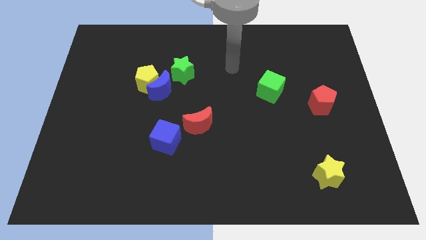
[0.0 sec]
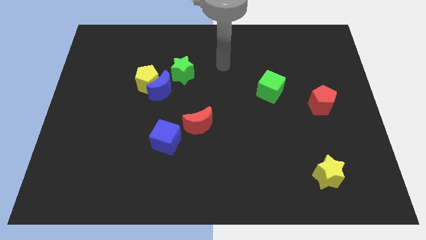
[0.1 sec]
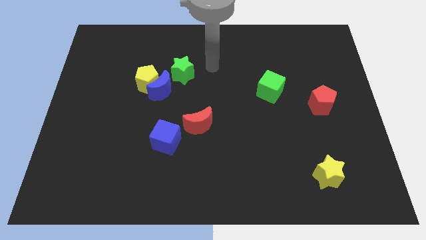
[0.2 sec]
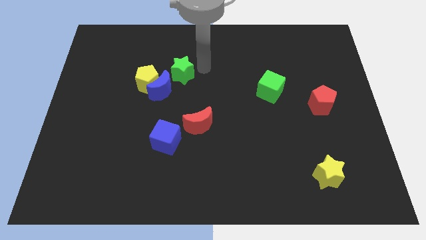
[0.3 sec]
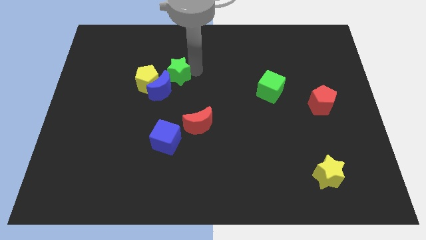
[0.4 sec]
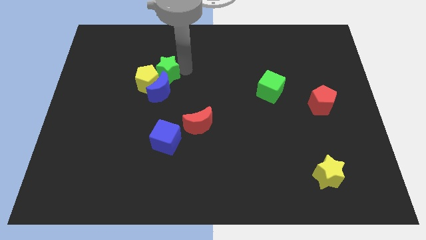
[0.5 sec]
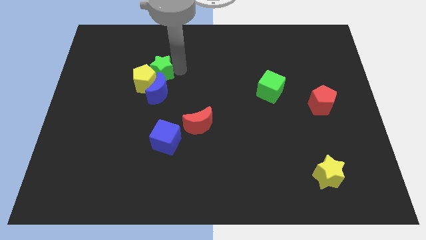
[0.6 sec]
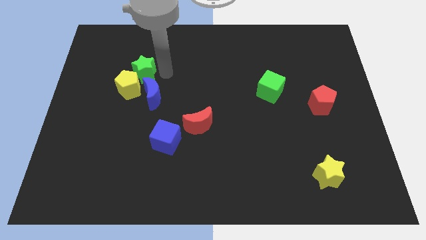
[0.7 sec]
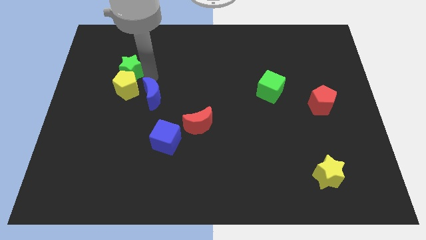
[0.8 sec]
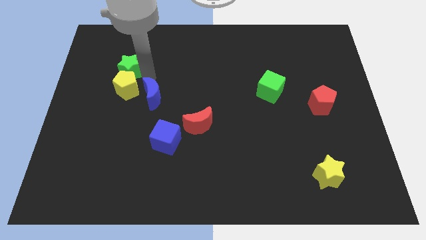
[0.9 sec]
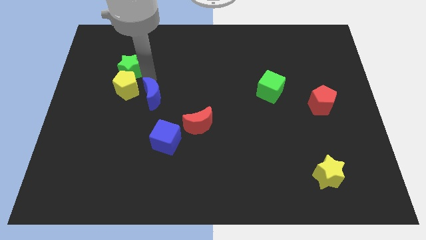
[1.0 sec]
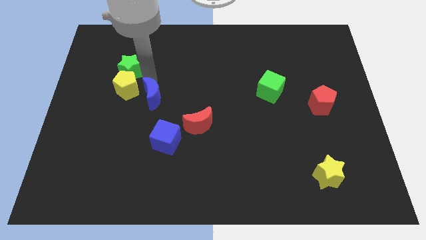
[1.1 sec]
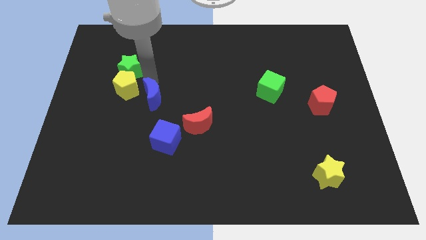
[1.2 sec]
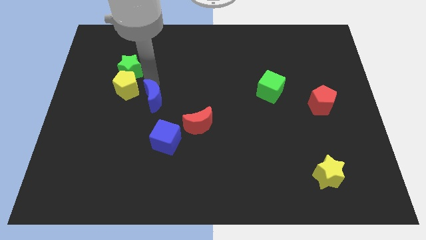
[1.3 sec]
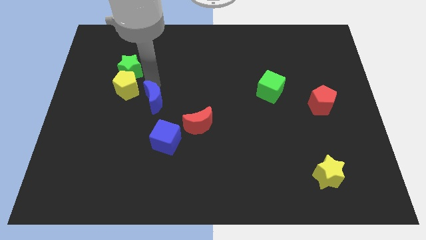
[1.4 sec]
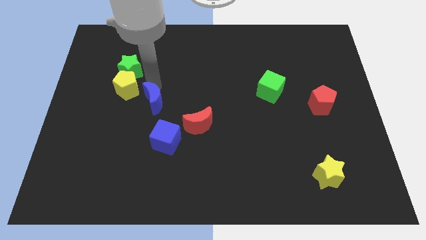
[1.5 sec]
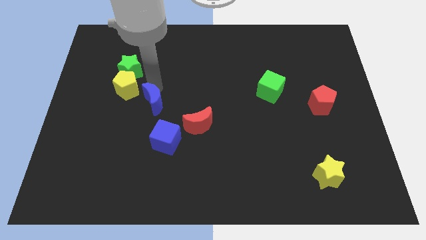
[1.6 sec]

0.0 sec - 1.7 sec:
move the blue moon away from the yellow pentagon and green star

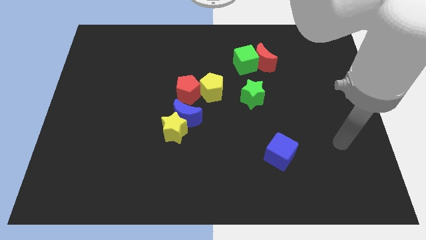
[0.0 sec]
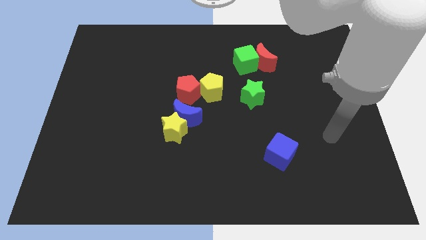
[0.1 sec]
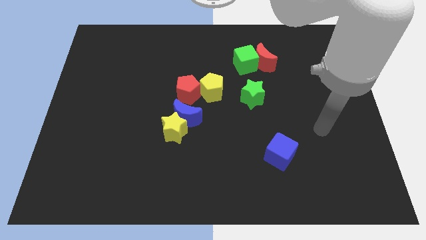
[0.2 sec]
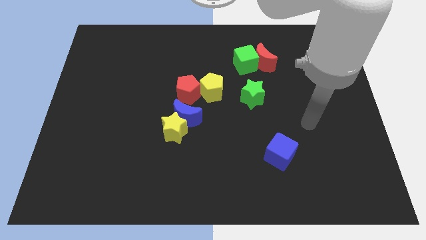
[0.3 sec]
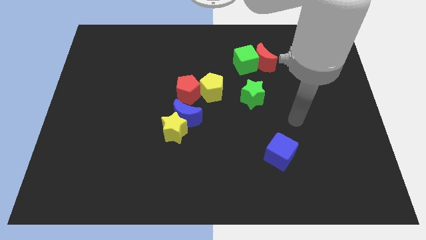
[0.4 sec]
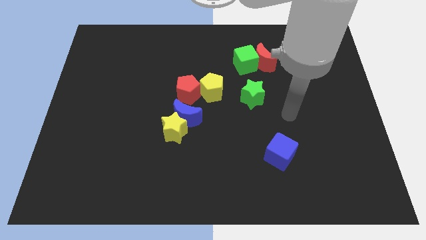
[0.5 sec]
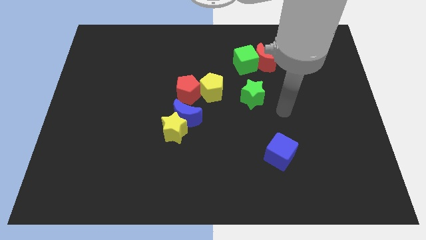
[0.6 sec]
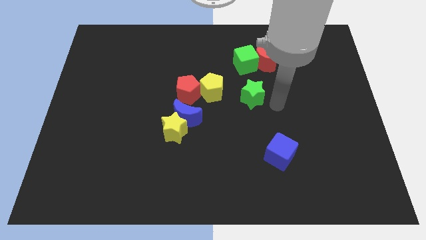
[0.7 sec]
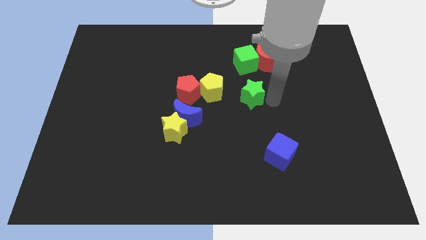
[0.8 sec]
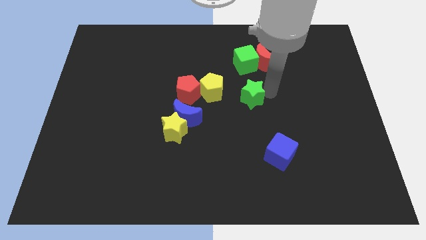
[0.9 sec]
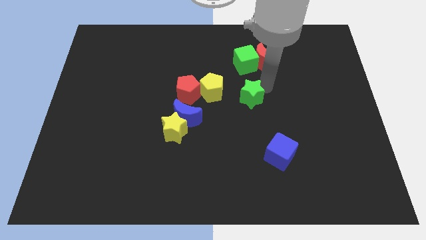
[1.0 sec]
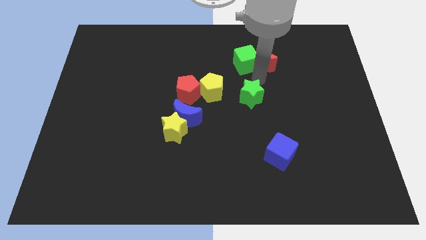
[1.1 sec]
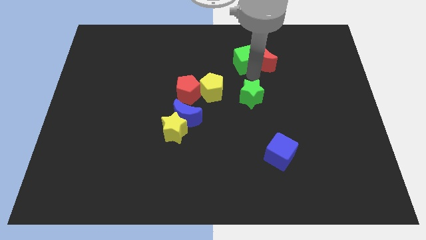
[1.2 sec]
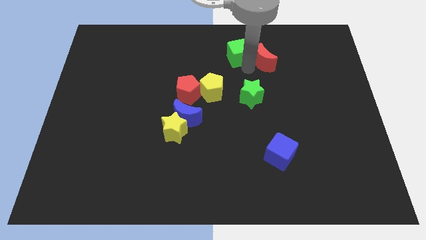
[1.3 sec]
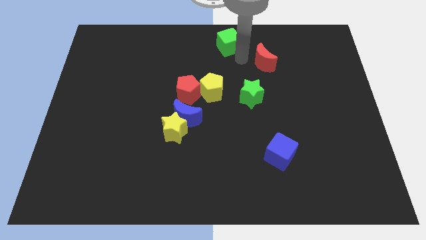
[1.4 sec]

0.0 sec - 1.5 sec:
separate the red moon from the green cube

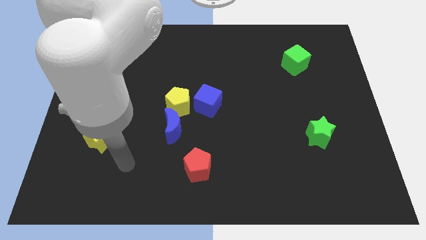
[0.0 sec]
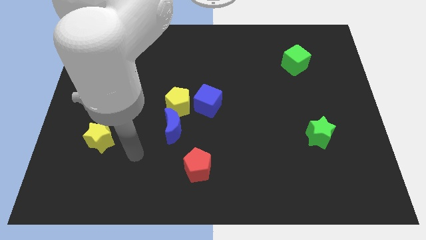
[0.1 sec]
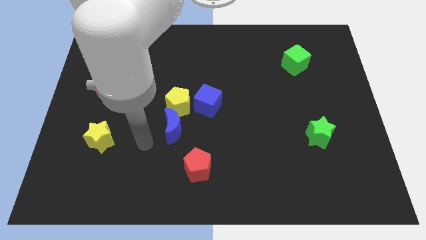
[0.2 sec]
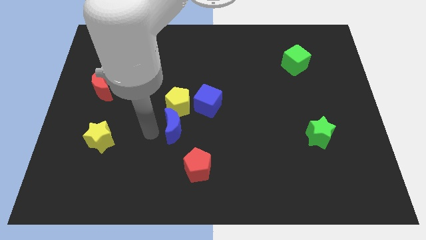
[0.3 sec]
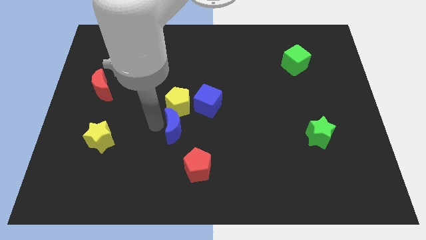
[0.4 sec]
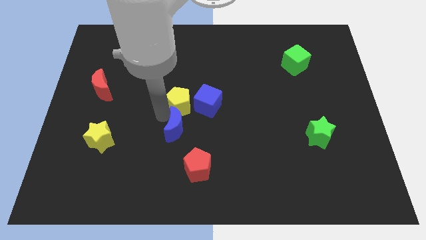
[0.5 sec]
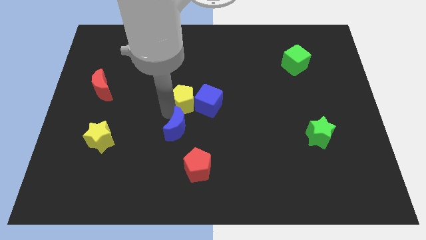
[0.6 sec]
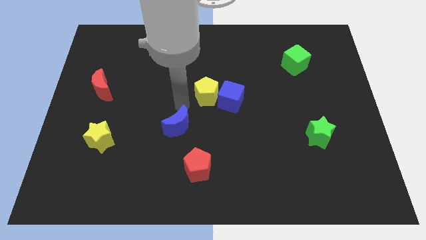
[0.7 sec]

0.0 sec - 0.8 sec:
pull the blue moon apart from the yellow pentagon

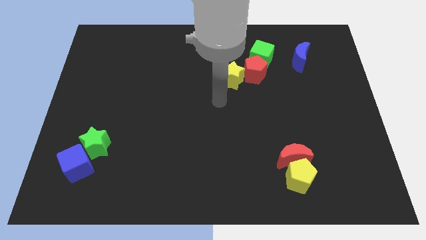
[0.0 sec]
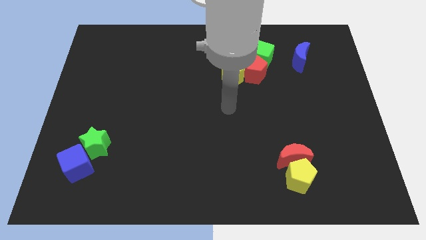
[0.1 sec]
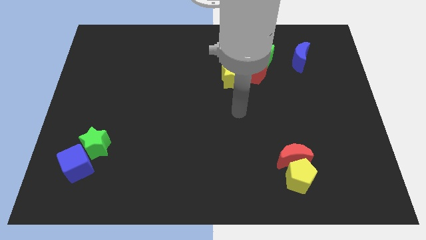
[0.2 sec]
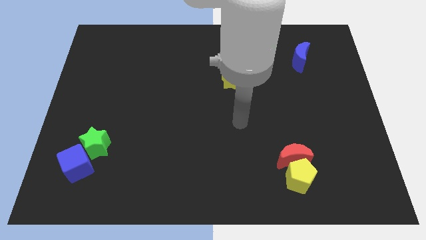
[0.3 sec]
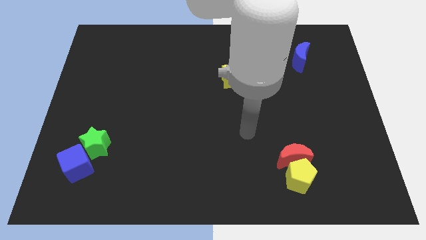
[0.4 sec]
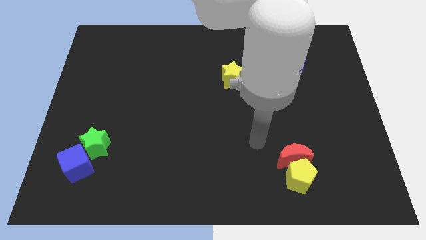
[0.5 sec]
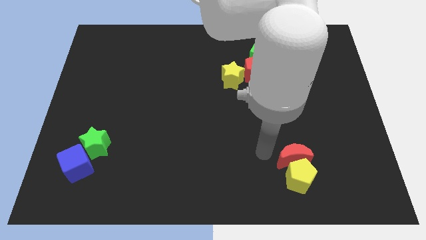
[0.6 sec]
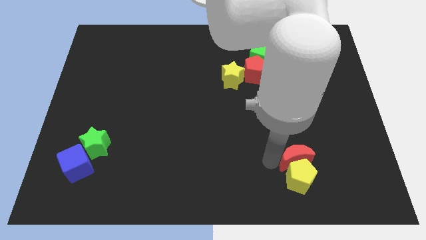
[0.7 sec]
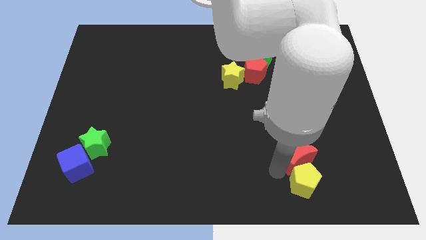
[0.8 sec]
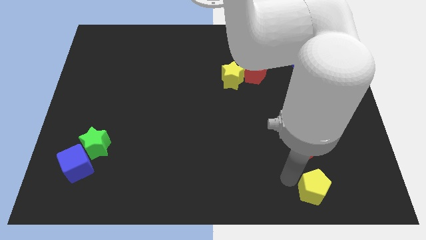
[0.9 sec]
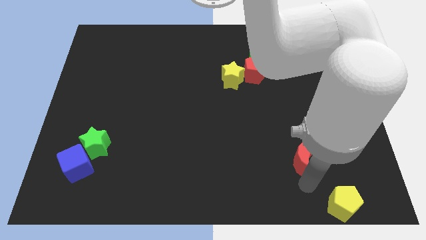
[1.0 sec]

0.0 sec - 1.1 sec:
pull the red moon apart from the yellow pentagon

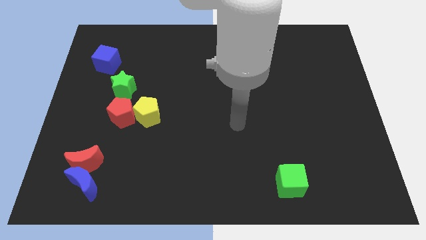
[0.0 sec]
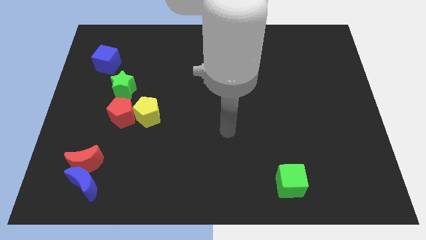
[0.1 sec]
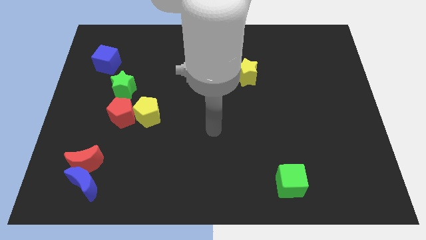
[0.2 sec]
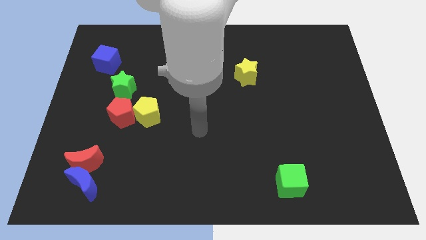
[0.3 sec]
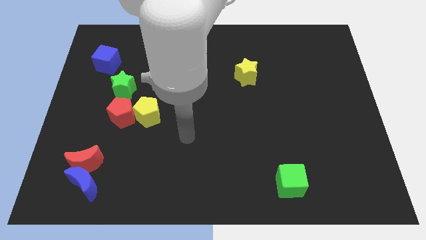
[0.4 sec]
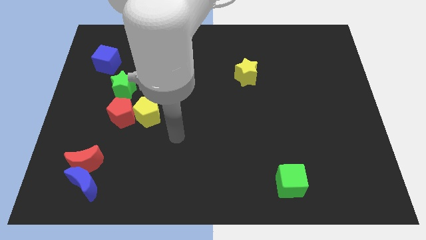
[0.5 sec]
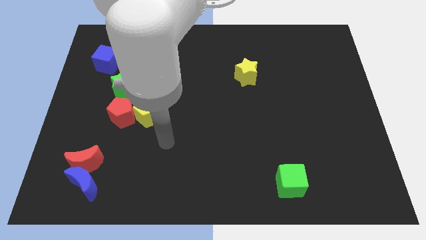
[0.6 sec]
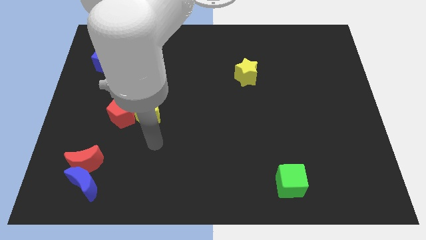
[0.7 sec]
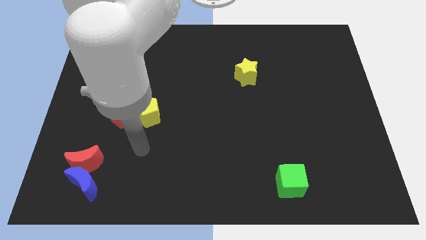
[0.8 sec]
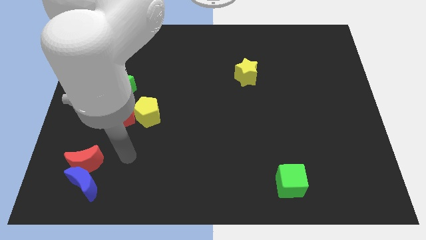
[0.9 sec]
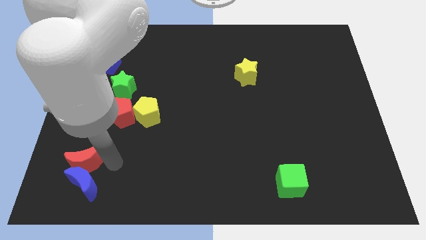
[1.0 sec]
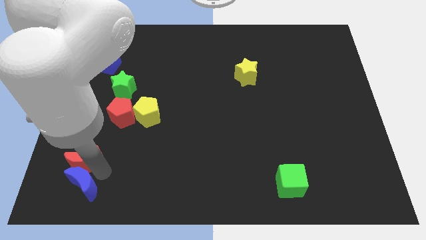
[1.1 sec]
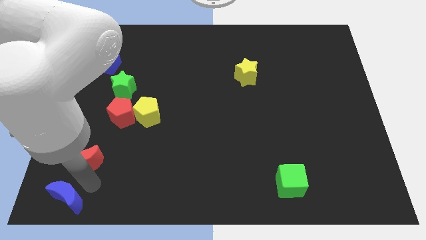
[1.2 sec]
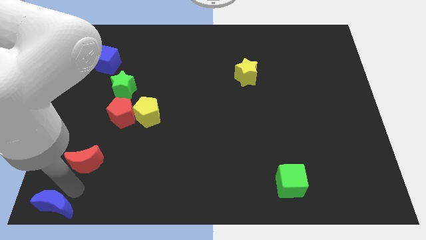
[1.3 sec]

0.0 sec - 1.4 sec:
move the red moon away from the blue moon

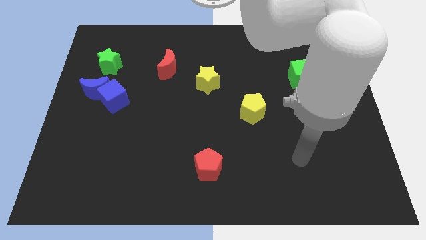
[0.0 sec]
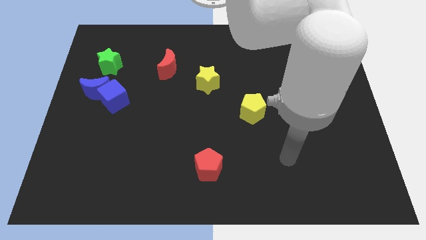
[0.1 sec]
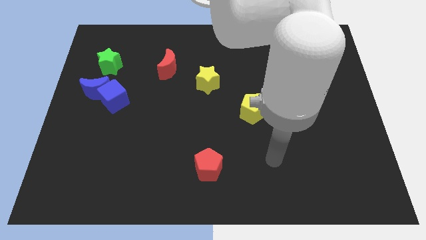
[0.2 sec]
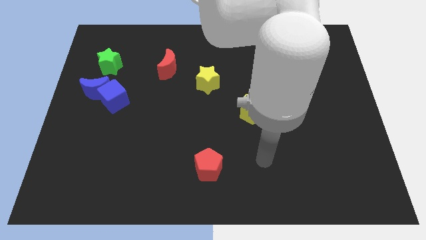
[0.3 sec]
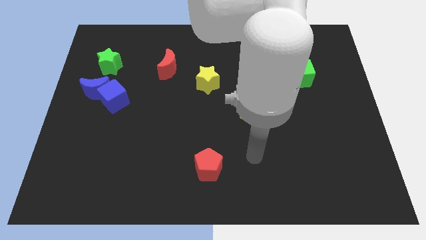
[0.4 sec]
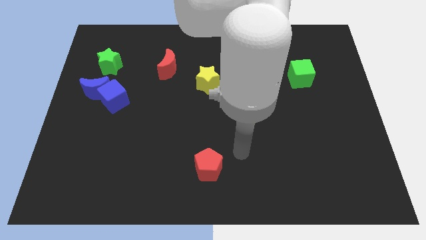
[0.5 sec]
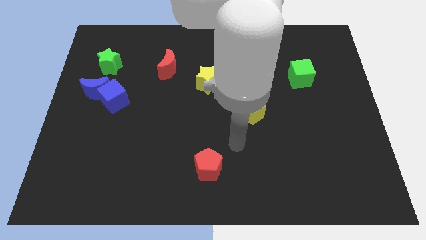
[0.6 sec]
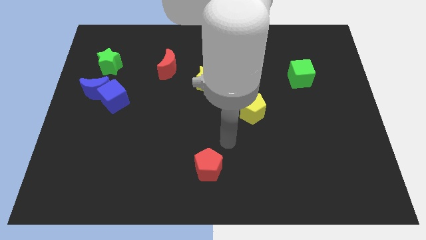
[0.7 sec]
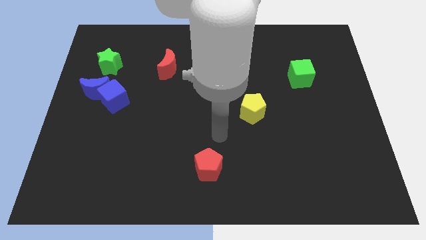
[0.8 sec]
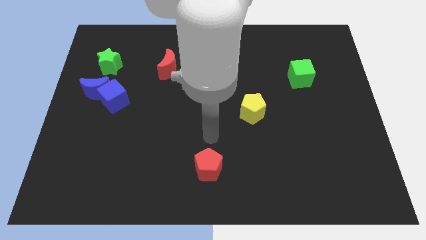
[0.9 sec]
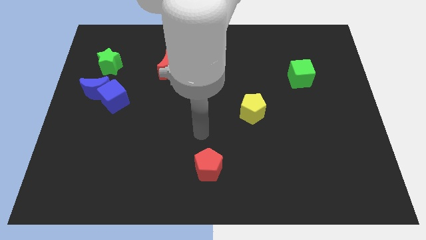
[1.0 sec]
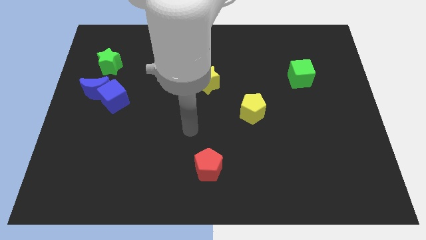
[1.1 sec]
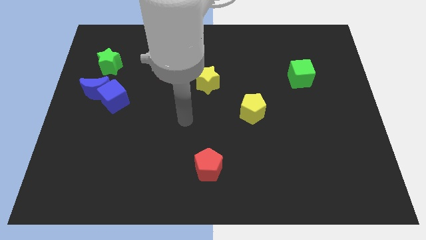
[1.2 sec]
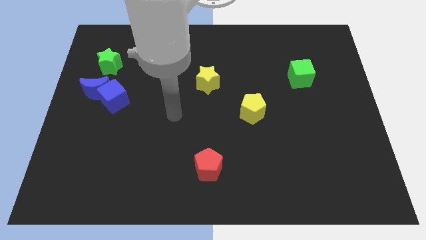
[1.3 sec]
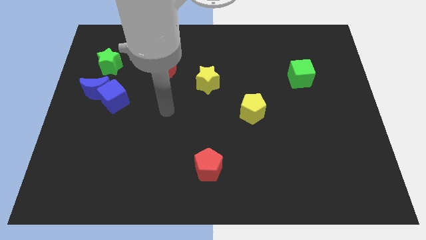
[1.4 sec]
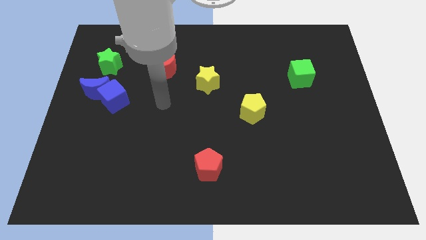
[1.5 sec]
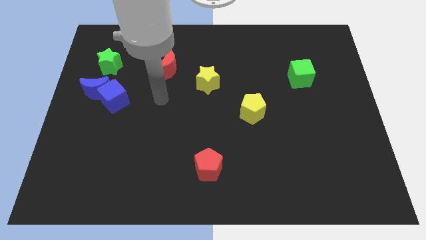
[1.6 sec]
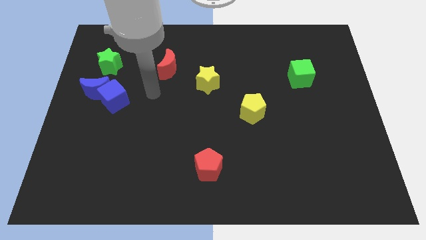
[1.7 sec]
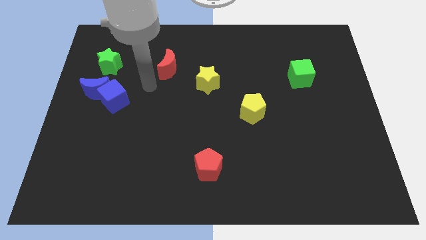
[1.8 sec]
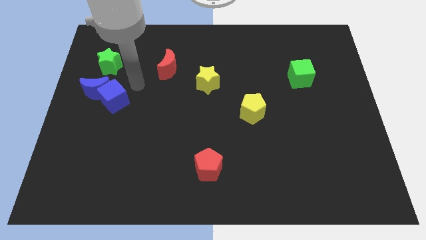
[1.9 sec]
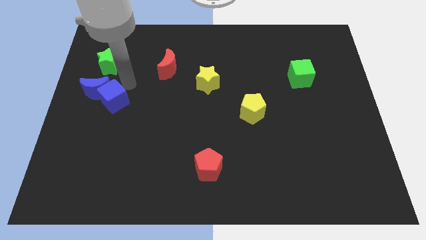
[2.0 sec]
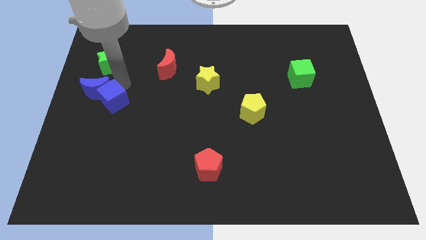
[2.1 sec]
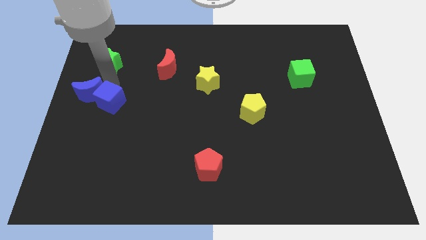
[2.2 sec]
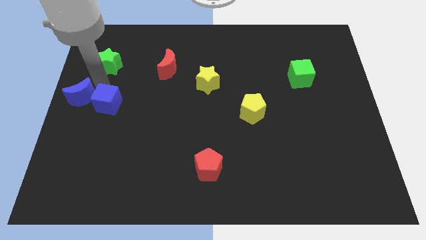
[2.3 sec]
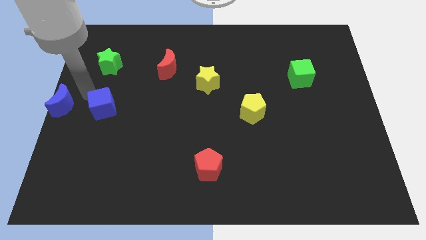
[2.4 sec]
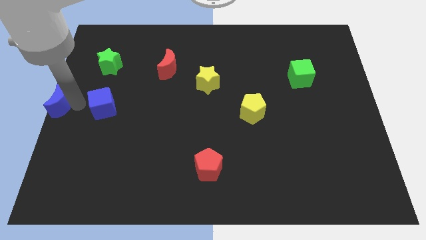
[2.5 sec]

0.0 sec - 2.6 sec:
separate the blue cube from the blue moon

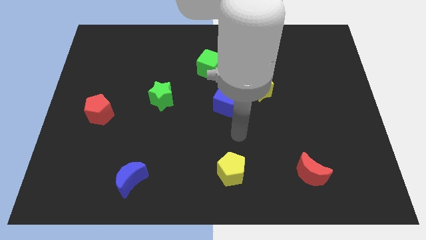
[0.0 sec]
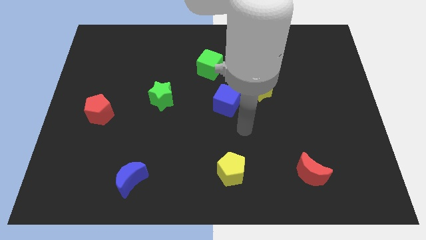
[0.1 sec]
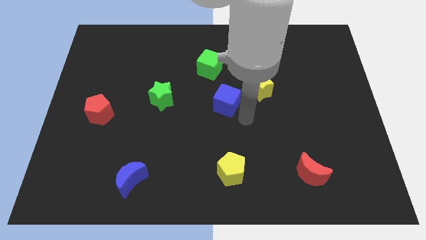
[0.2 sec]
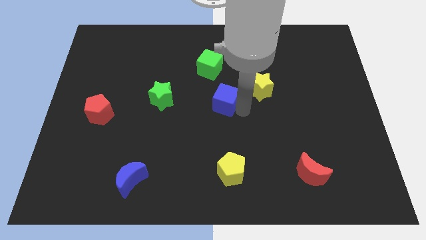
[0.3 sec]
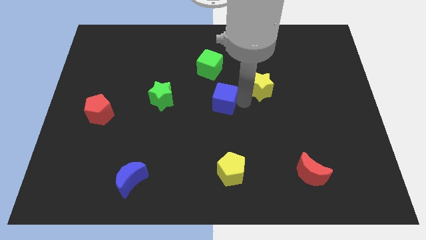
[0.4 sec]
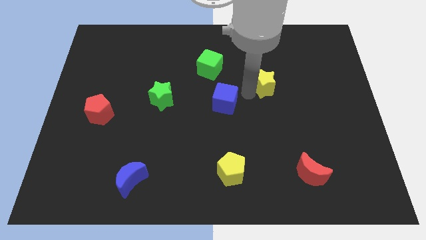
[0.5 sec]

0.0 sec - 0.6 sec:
separate the blue cube from the yellow star
